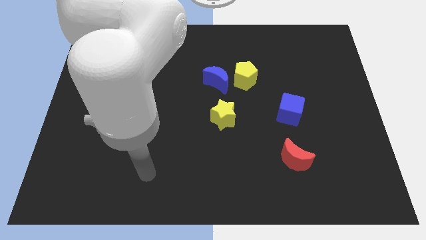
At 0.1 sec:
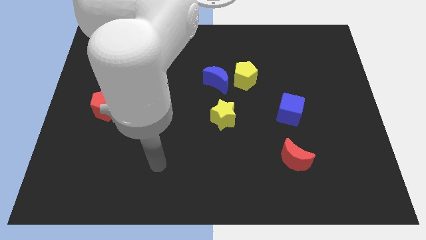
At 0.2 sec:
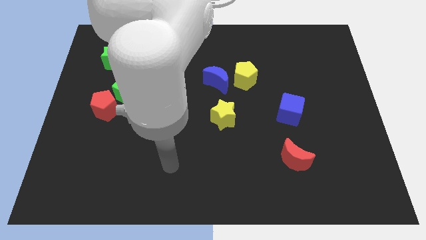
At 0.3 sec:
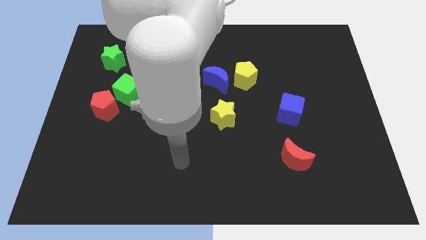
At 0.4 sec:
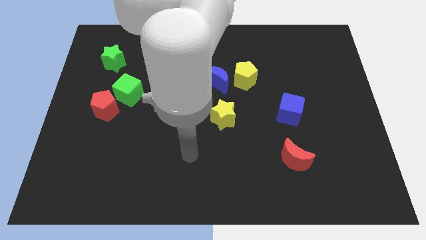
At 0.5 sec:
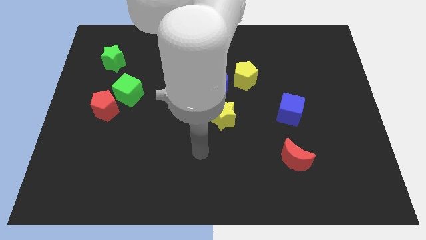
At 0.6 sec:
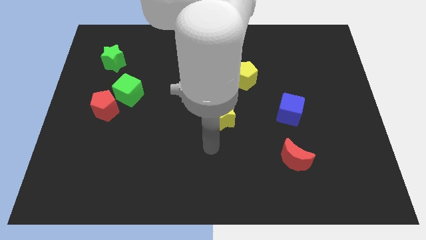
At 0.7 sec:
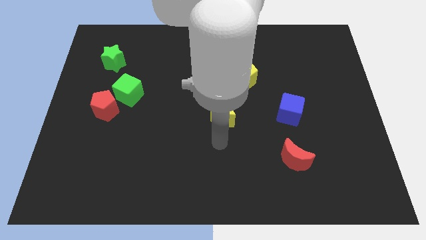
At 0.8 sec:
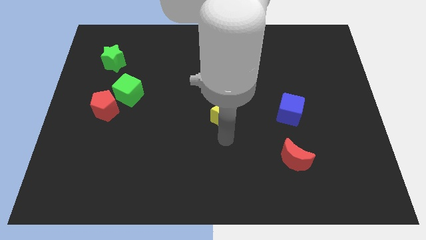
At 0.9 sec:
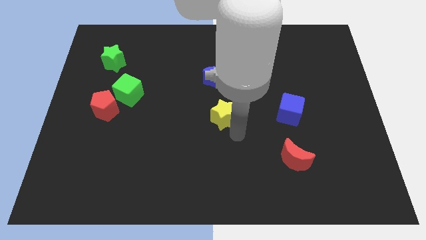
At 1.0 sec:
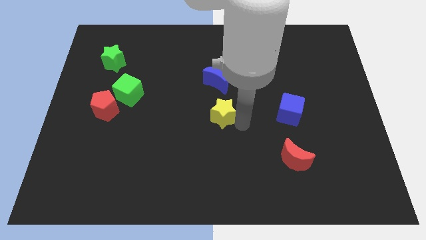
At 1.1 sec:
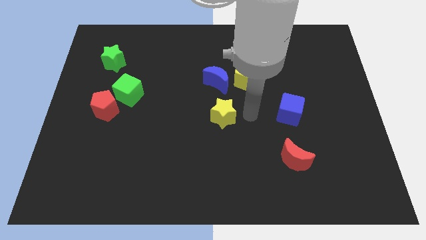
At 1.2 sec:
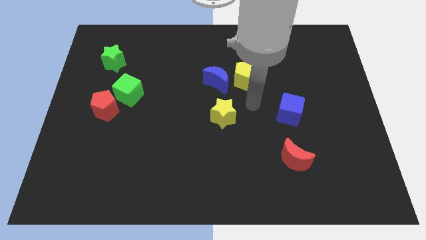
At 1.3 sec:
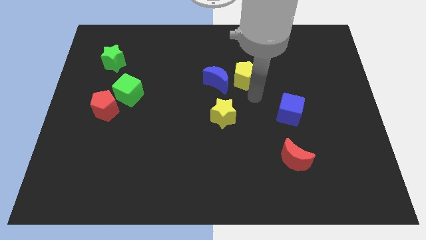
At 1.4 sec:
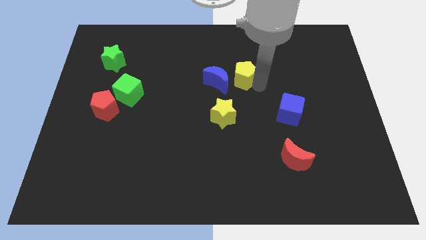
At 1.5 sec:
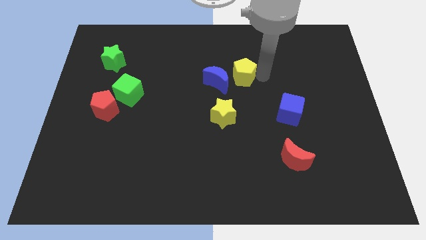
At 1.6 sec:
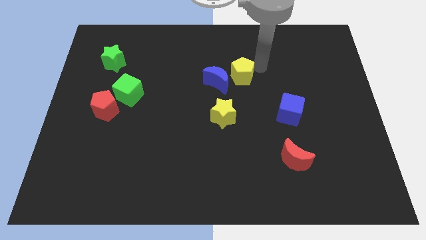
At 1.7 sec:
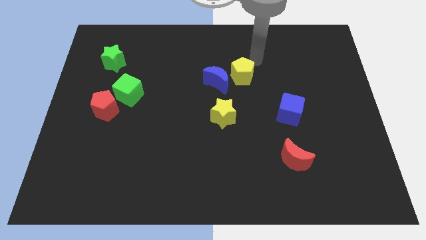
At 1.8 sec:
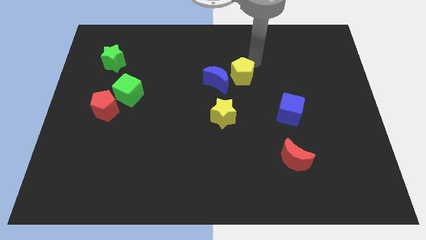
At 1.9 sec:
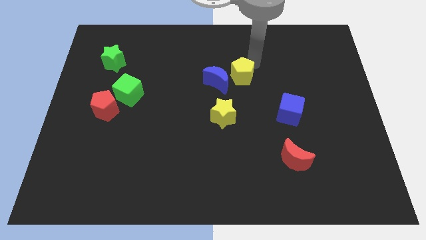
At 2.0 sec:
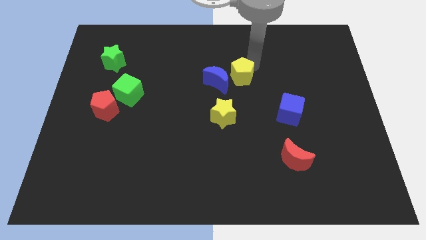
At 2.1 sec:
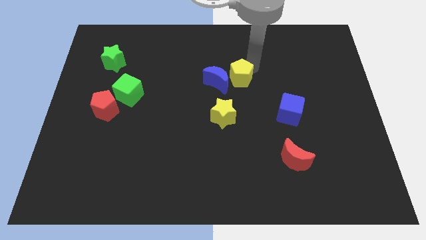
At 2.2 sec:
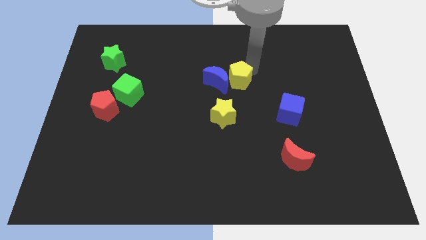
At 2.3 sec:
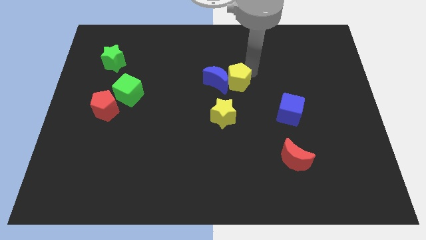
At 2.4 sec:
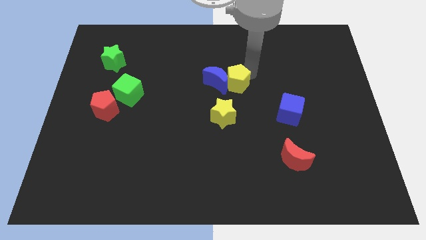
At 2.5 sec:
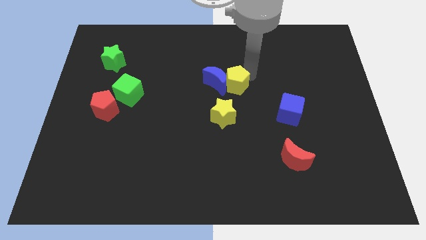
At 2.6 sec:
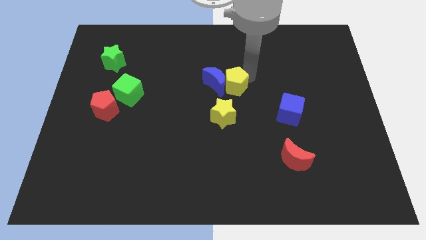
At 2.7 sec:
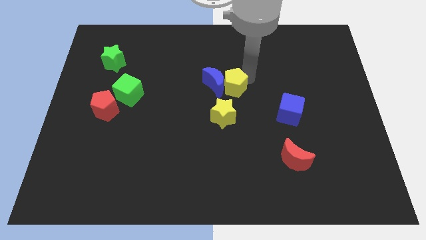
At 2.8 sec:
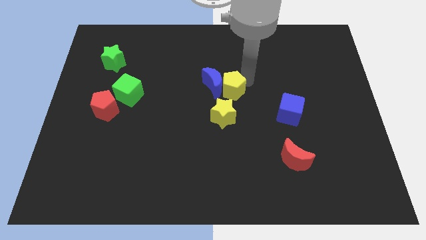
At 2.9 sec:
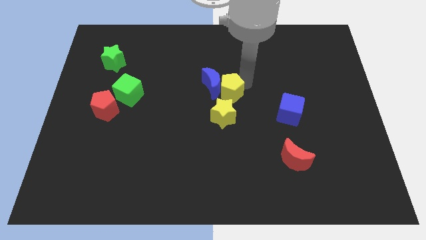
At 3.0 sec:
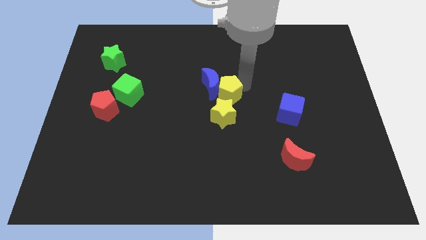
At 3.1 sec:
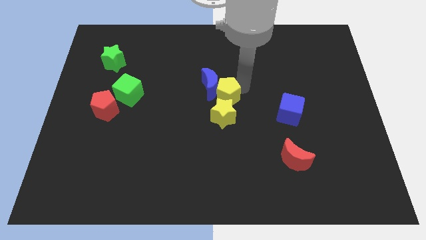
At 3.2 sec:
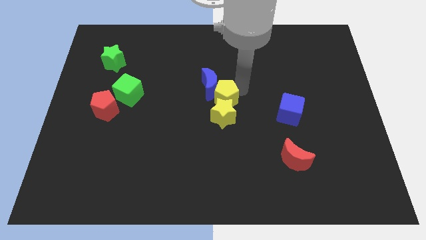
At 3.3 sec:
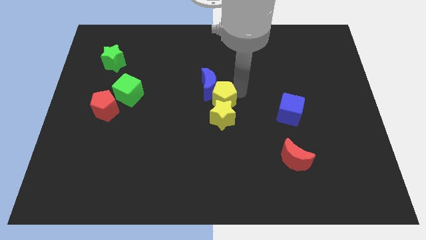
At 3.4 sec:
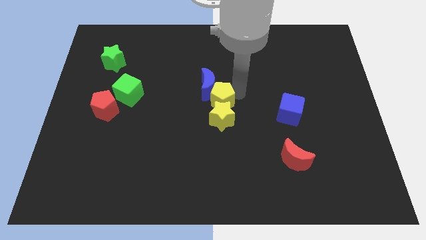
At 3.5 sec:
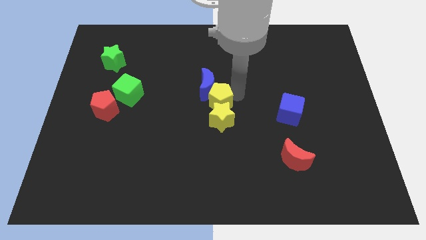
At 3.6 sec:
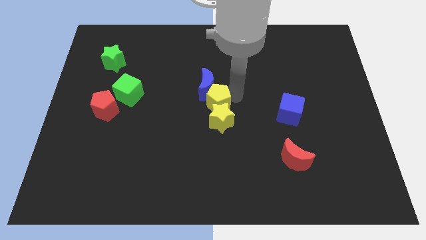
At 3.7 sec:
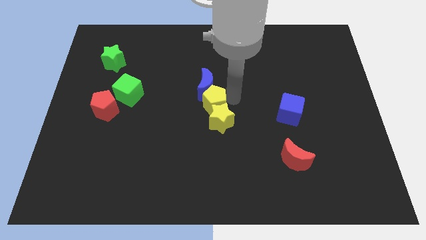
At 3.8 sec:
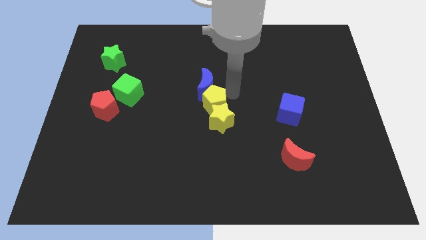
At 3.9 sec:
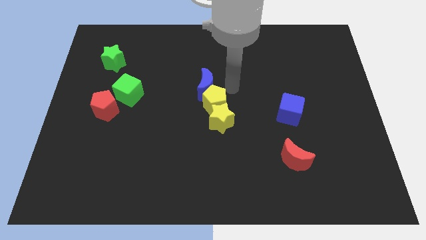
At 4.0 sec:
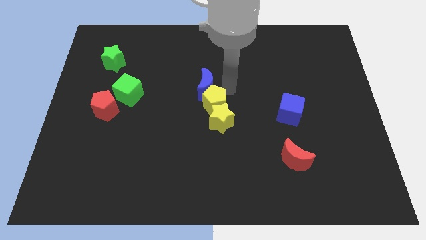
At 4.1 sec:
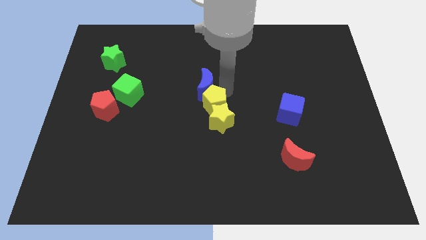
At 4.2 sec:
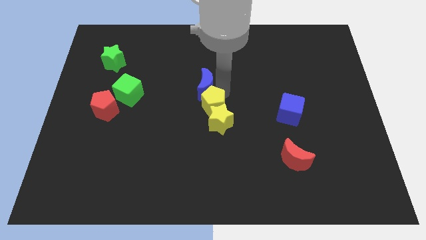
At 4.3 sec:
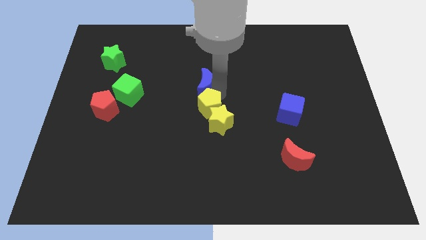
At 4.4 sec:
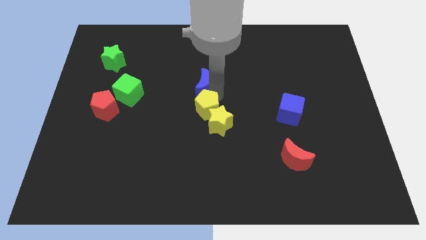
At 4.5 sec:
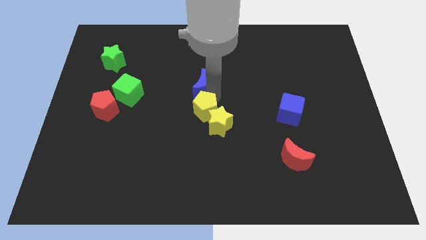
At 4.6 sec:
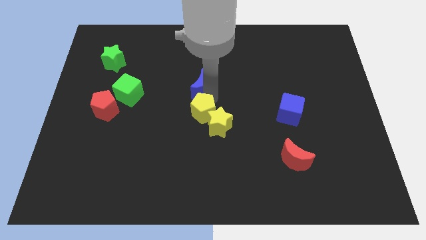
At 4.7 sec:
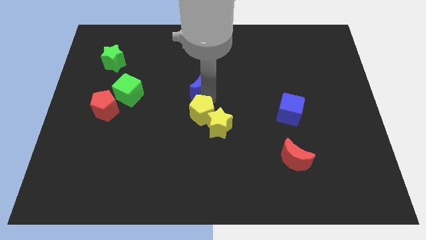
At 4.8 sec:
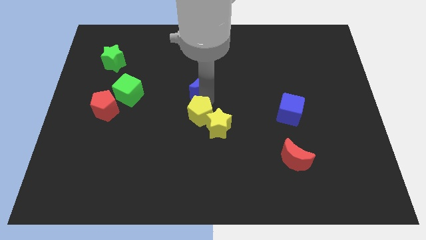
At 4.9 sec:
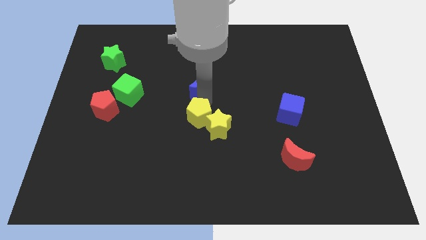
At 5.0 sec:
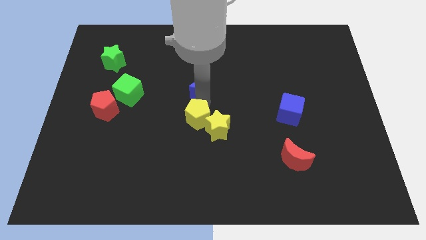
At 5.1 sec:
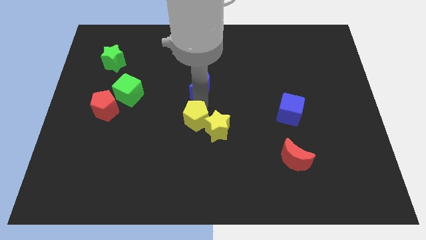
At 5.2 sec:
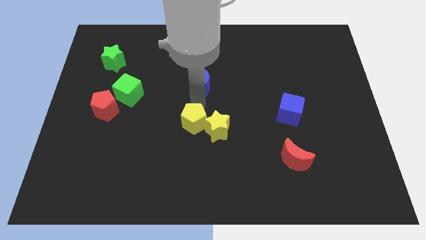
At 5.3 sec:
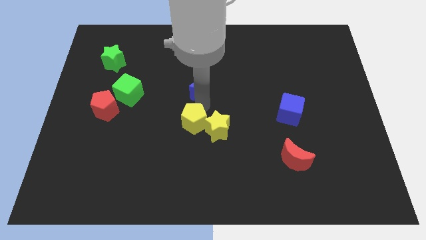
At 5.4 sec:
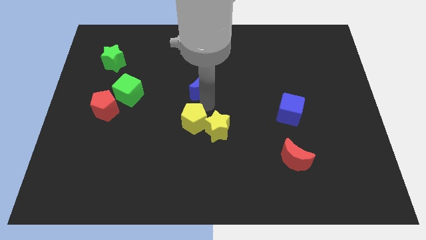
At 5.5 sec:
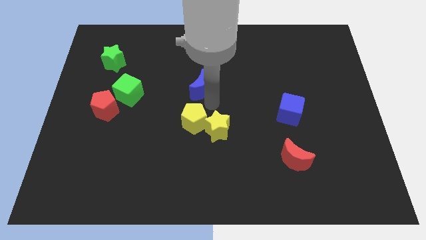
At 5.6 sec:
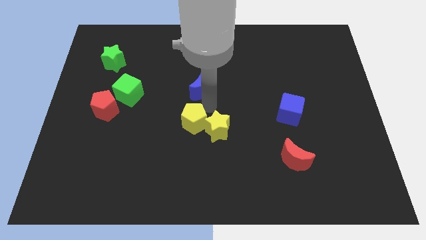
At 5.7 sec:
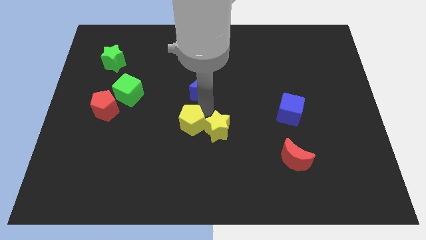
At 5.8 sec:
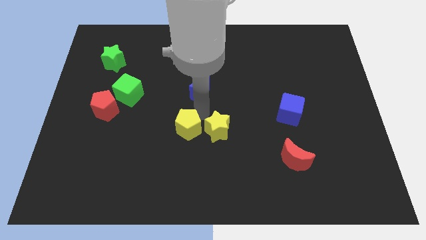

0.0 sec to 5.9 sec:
push the yellow pentagon down and left diagonally

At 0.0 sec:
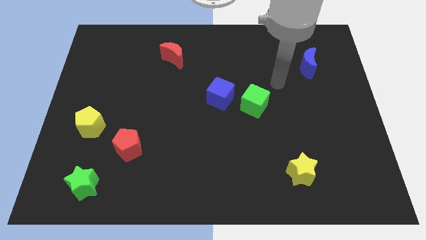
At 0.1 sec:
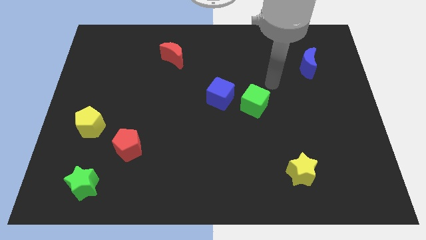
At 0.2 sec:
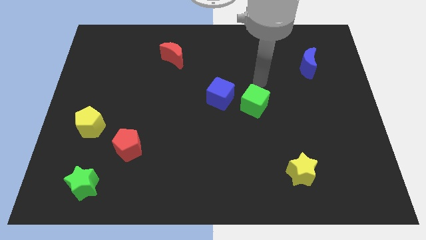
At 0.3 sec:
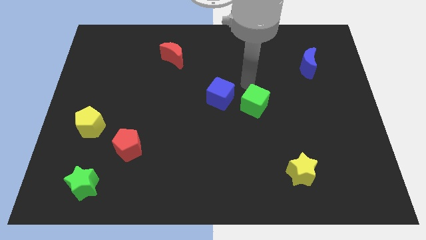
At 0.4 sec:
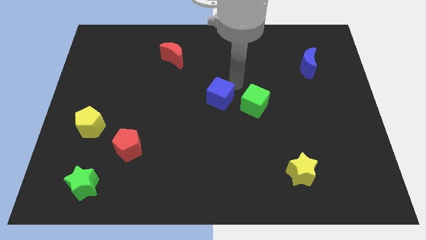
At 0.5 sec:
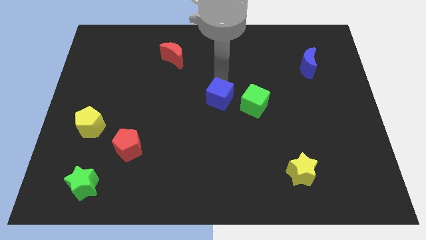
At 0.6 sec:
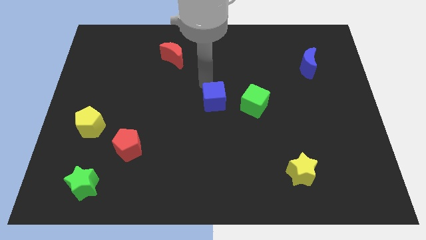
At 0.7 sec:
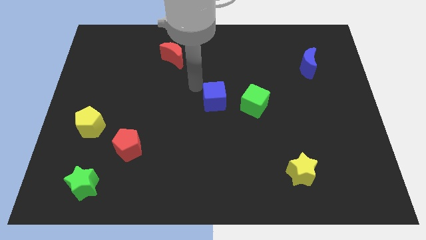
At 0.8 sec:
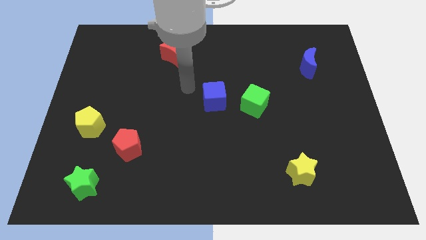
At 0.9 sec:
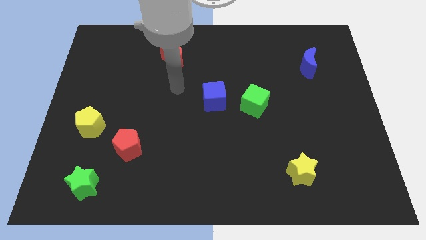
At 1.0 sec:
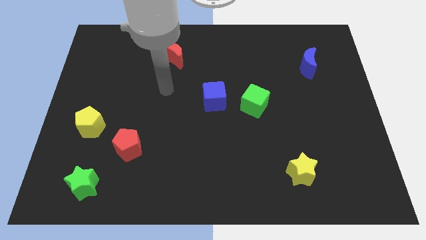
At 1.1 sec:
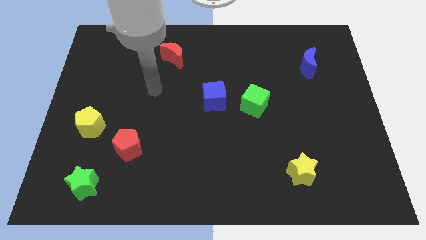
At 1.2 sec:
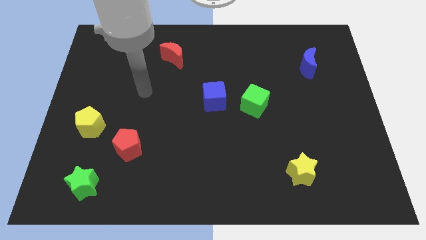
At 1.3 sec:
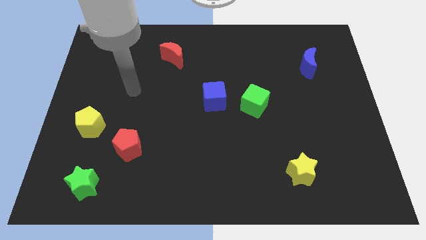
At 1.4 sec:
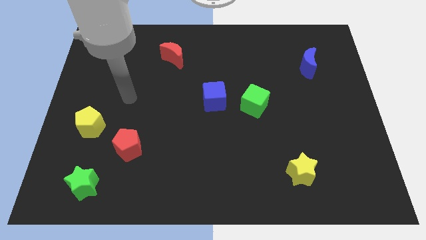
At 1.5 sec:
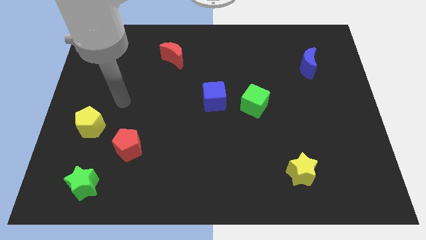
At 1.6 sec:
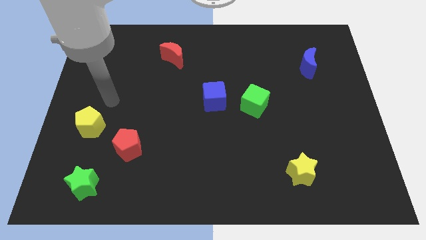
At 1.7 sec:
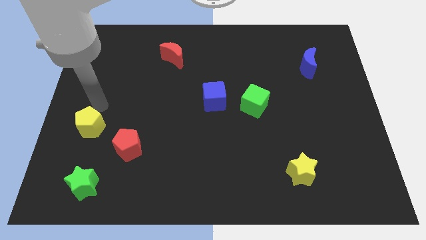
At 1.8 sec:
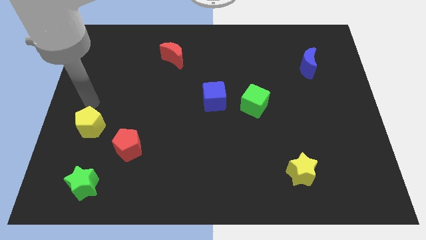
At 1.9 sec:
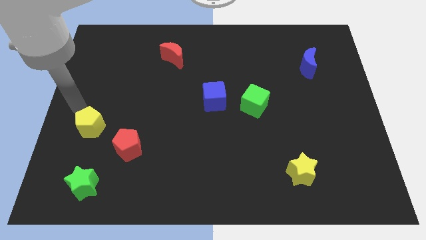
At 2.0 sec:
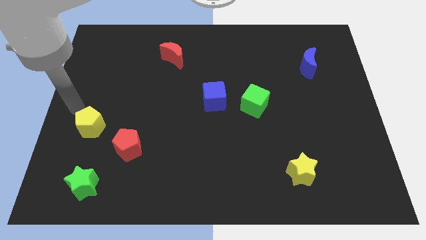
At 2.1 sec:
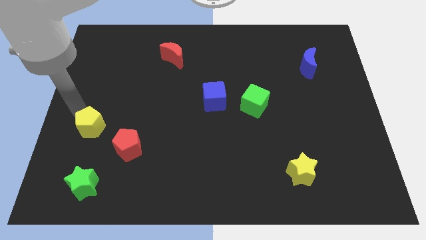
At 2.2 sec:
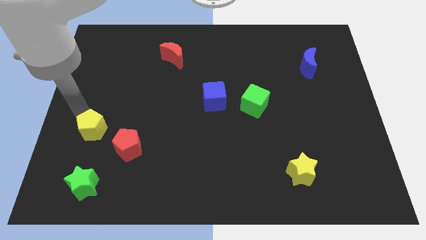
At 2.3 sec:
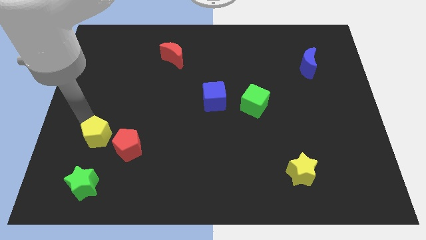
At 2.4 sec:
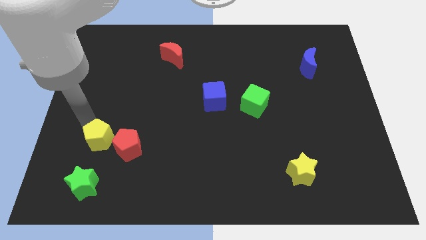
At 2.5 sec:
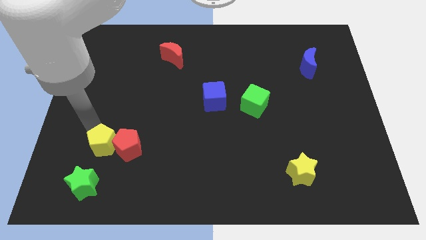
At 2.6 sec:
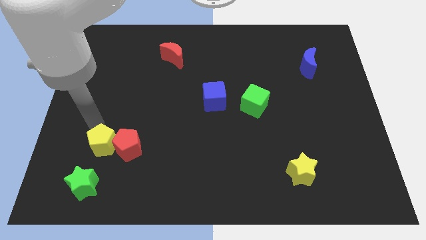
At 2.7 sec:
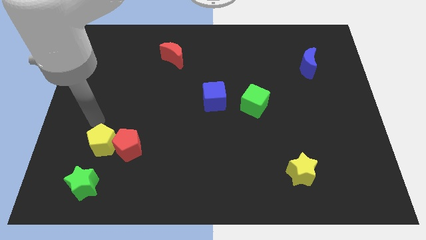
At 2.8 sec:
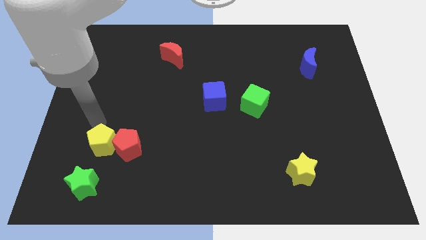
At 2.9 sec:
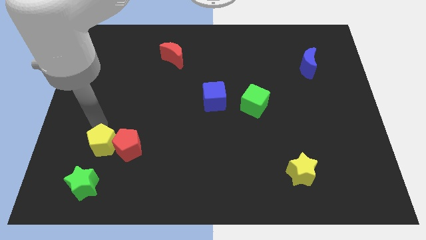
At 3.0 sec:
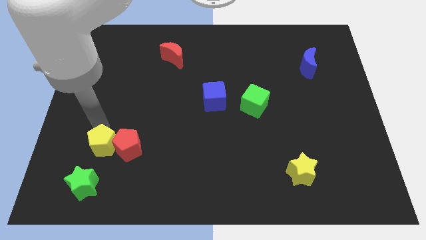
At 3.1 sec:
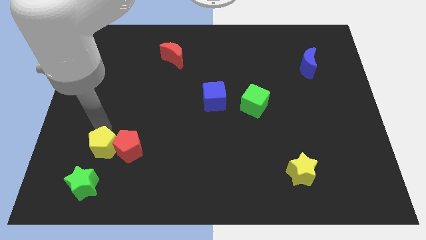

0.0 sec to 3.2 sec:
slightly slide the yellow pentagon downwards and then to the right
